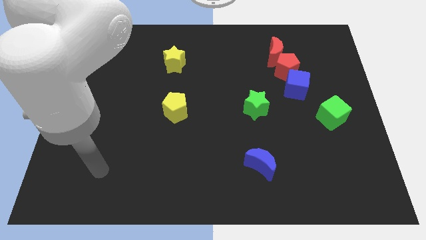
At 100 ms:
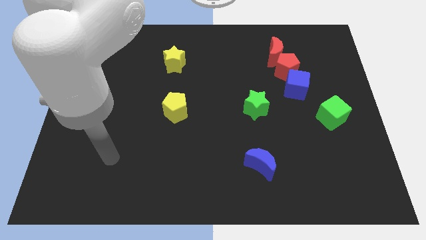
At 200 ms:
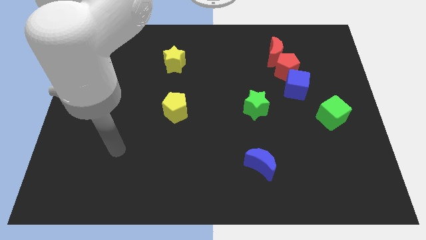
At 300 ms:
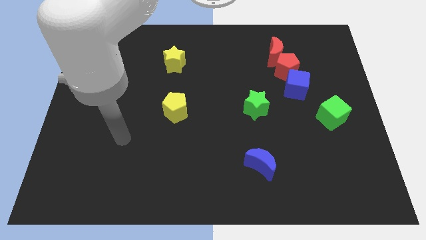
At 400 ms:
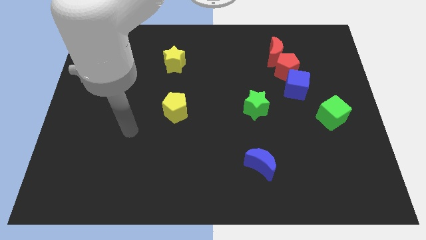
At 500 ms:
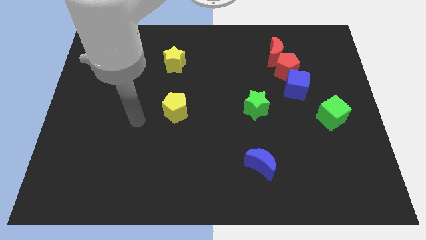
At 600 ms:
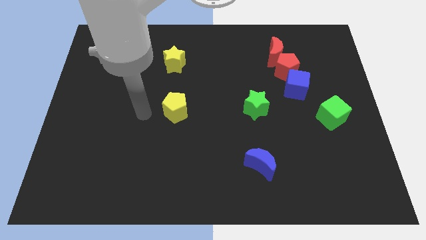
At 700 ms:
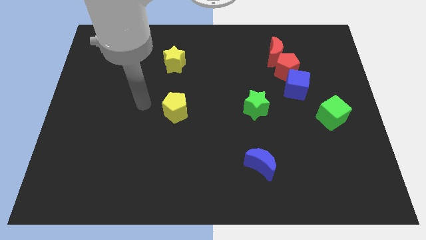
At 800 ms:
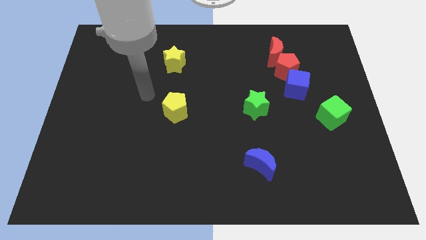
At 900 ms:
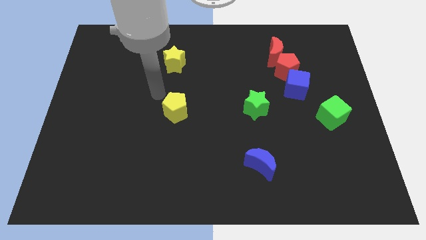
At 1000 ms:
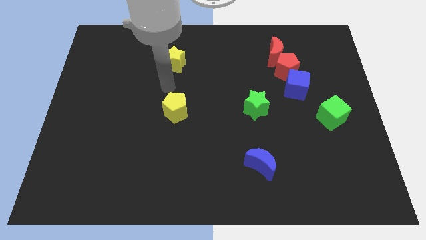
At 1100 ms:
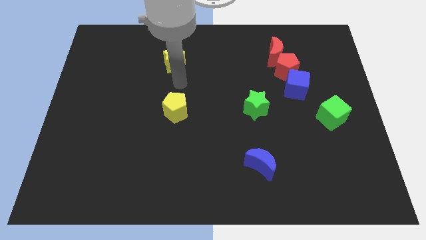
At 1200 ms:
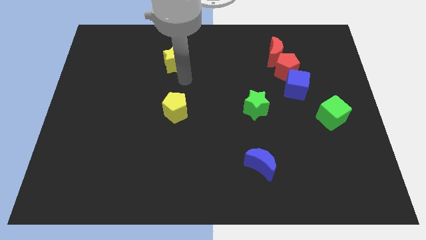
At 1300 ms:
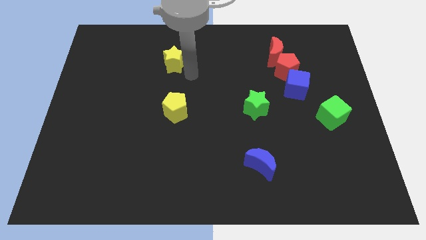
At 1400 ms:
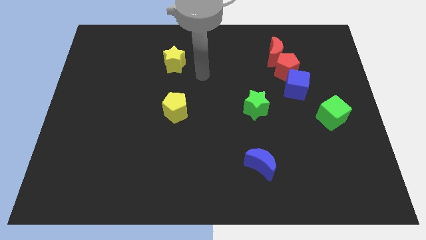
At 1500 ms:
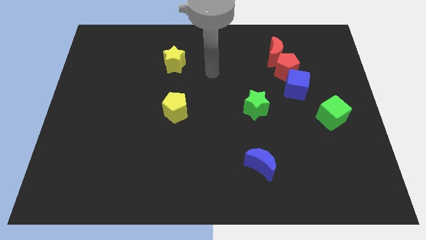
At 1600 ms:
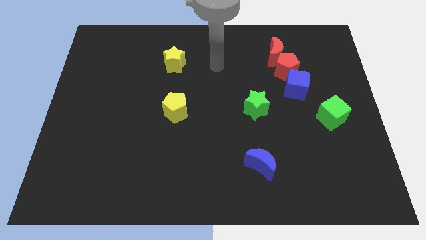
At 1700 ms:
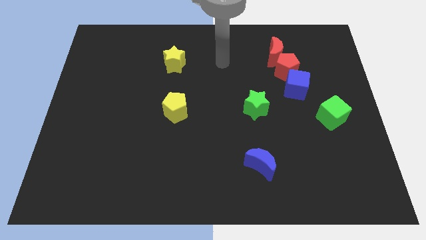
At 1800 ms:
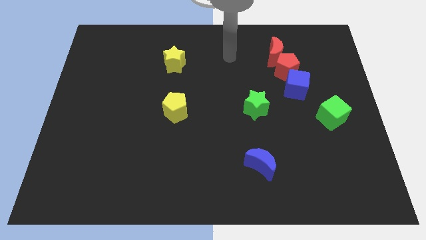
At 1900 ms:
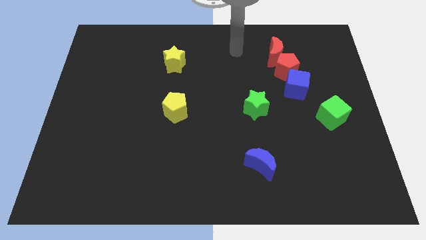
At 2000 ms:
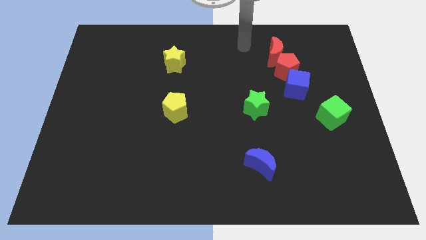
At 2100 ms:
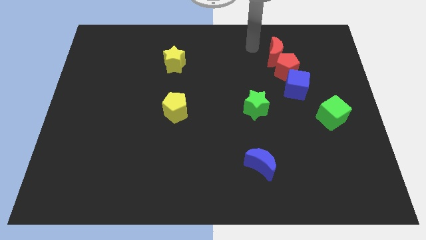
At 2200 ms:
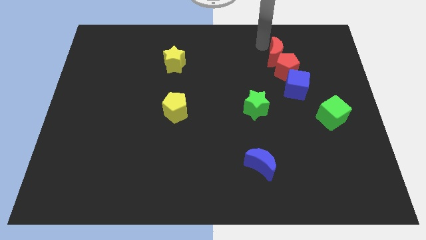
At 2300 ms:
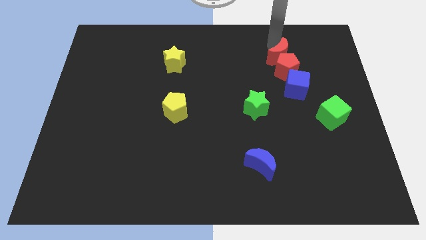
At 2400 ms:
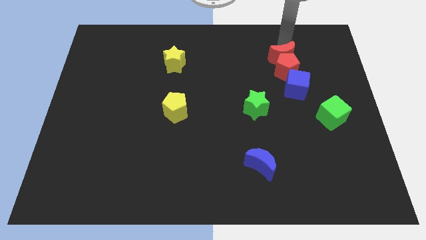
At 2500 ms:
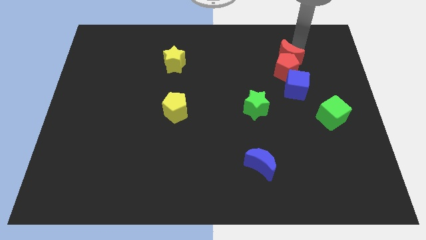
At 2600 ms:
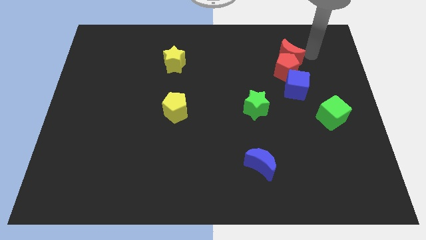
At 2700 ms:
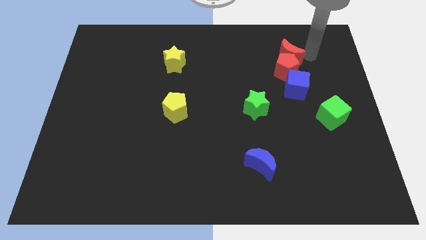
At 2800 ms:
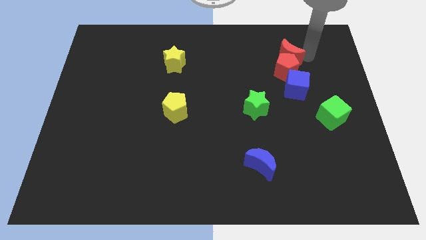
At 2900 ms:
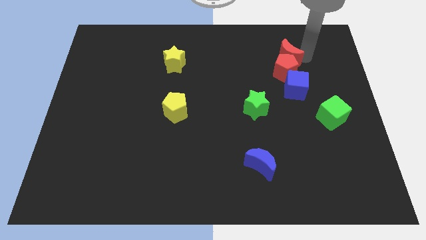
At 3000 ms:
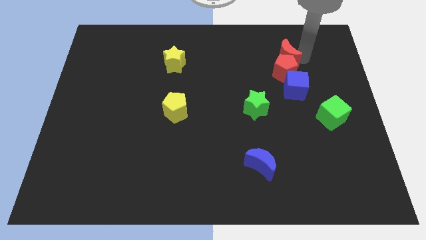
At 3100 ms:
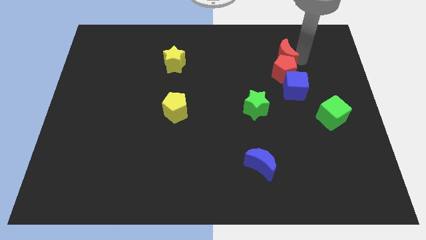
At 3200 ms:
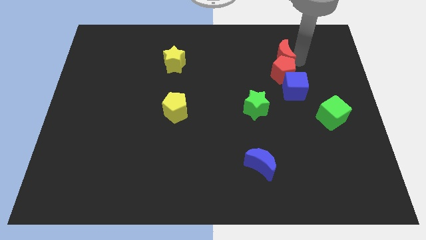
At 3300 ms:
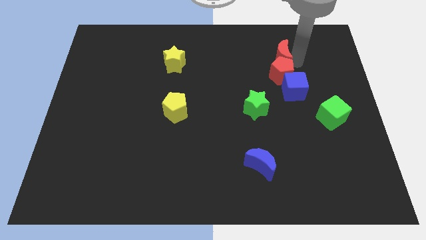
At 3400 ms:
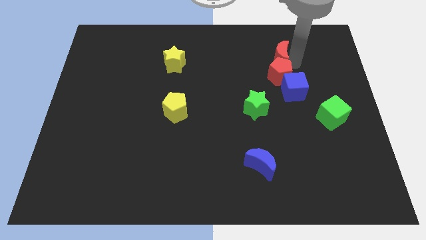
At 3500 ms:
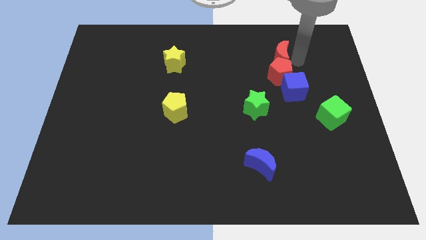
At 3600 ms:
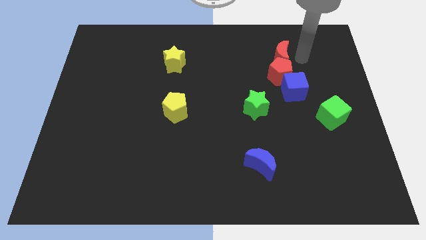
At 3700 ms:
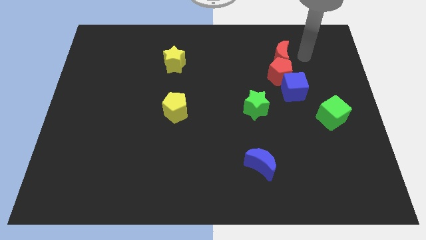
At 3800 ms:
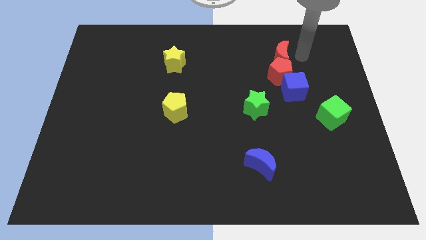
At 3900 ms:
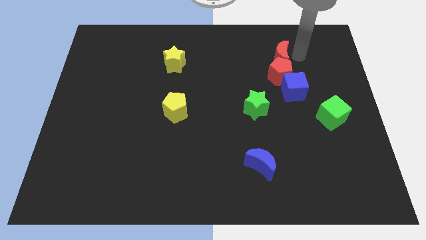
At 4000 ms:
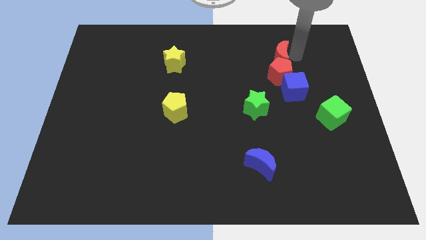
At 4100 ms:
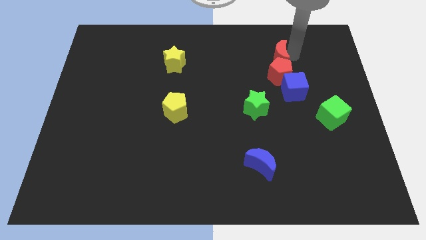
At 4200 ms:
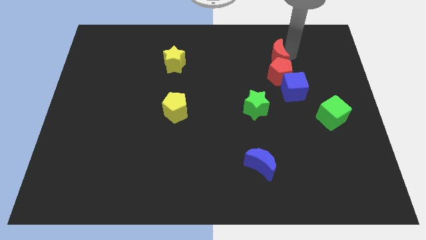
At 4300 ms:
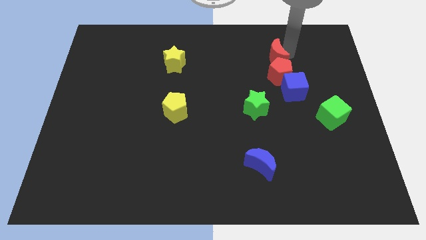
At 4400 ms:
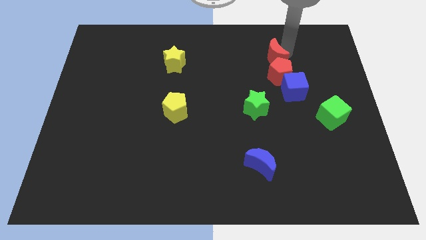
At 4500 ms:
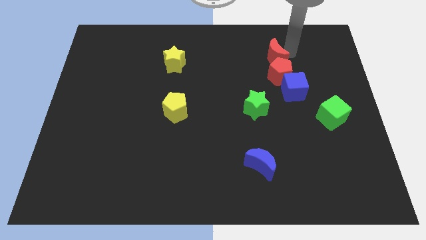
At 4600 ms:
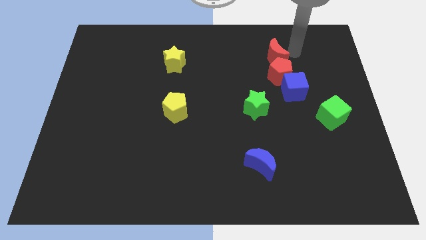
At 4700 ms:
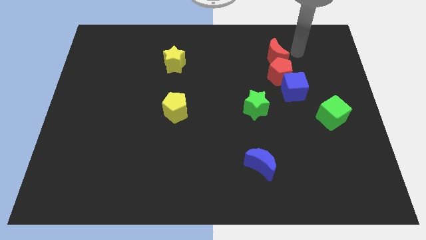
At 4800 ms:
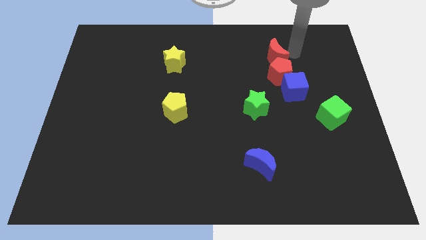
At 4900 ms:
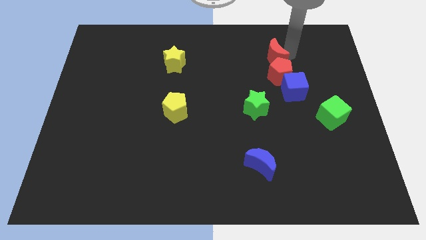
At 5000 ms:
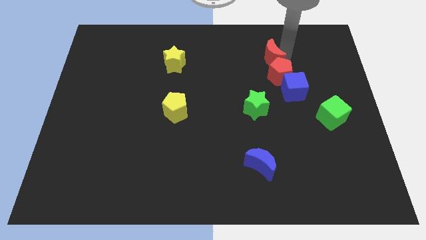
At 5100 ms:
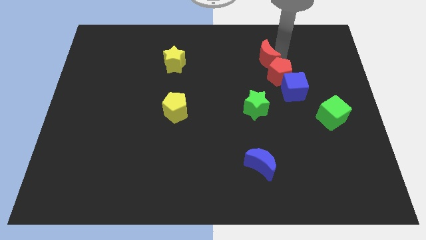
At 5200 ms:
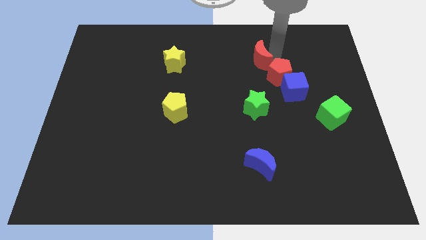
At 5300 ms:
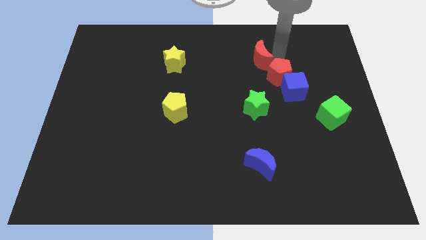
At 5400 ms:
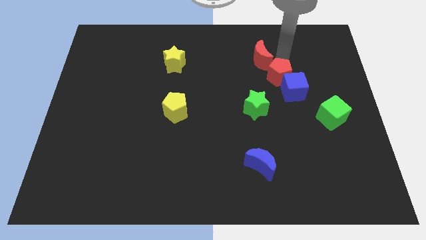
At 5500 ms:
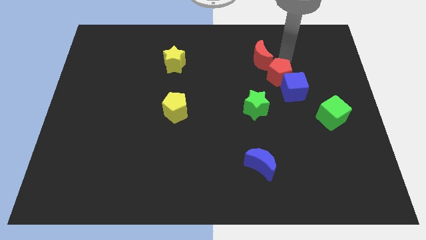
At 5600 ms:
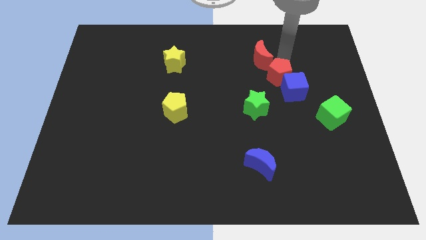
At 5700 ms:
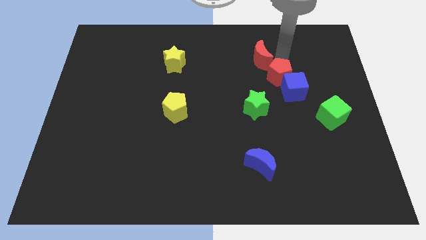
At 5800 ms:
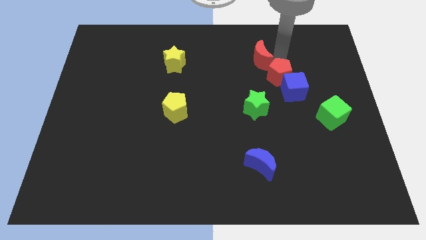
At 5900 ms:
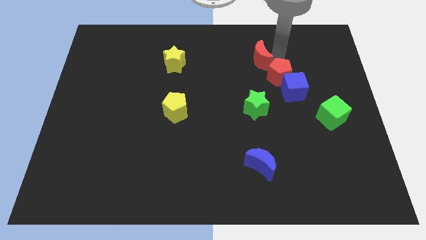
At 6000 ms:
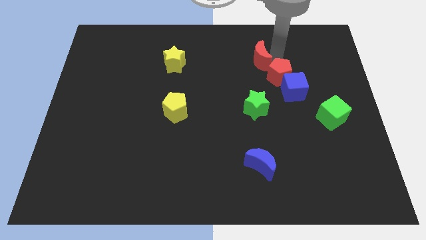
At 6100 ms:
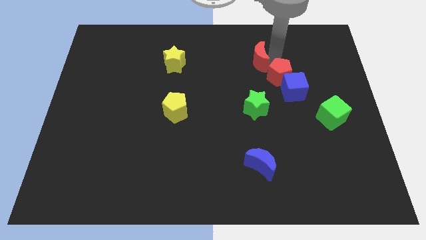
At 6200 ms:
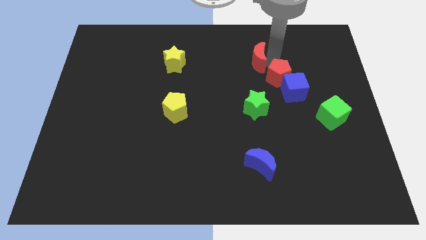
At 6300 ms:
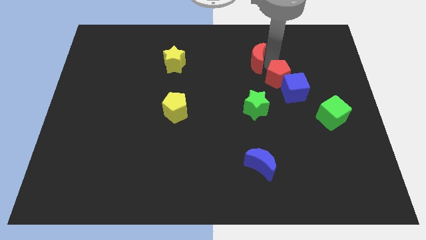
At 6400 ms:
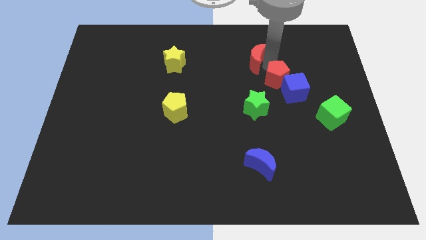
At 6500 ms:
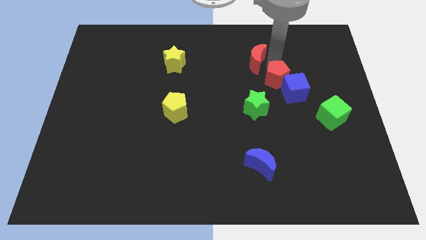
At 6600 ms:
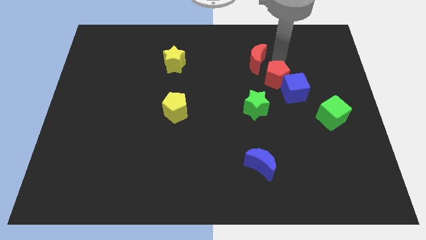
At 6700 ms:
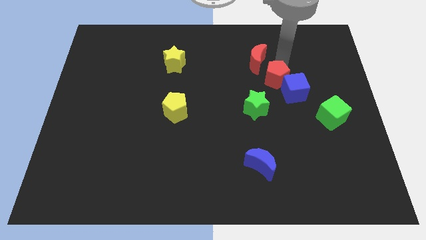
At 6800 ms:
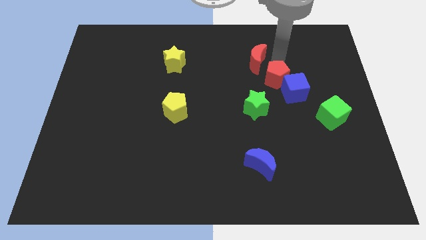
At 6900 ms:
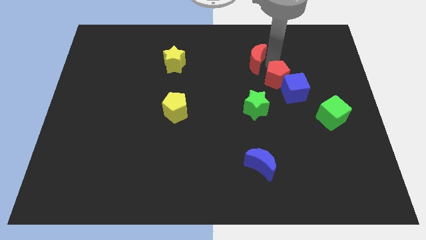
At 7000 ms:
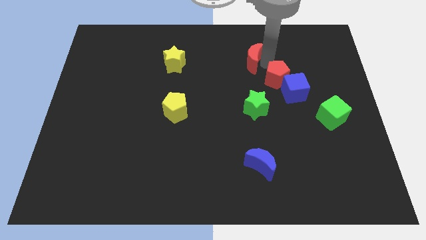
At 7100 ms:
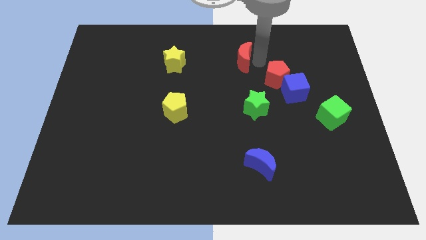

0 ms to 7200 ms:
slightly move the red moon left

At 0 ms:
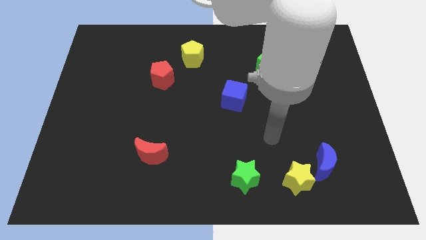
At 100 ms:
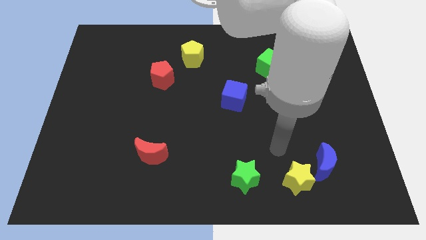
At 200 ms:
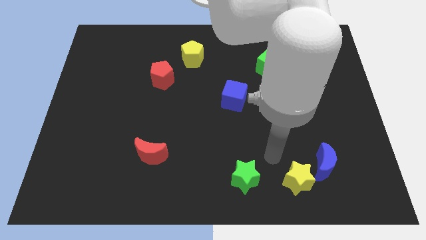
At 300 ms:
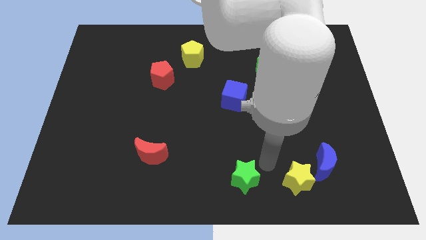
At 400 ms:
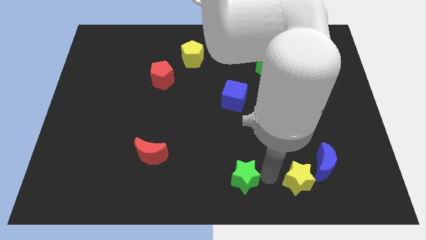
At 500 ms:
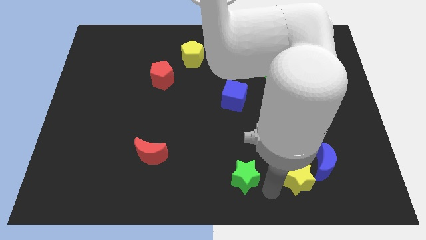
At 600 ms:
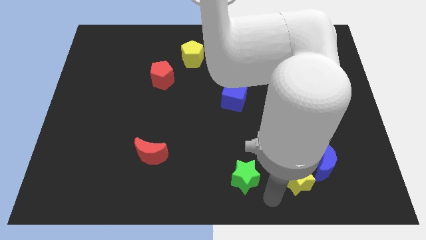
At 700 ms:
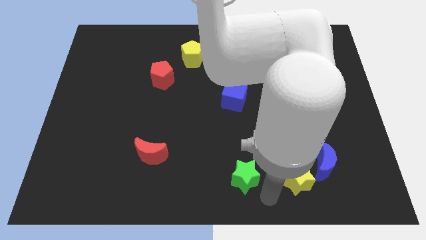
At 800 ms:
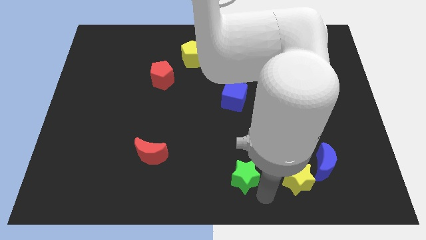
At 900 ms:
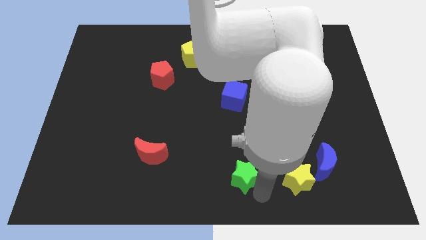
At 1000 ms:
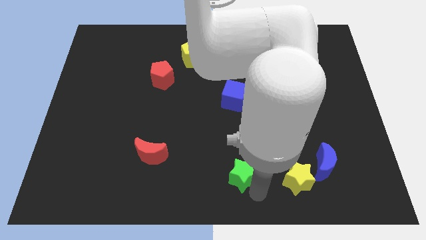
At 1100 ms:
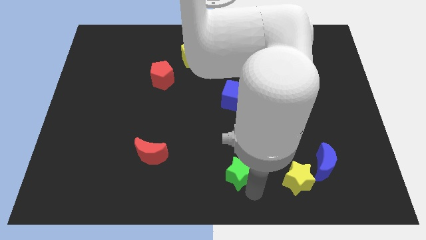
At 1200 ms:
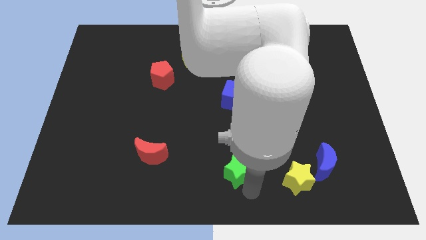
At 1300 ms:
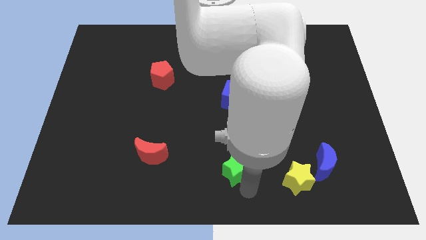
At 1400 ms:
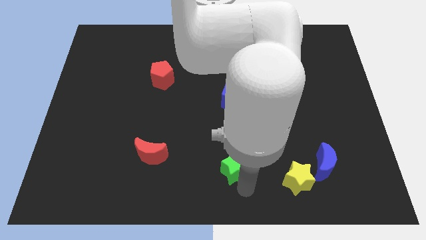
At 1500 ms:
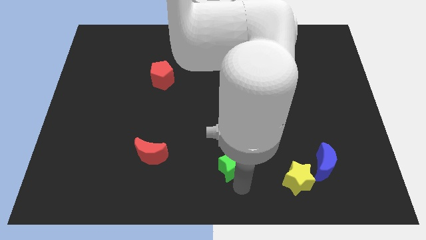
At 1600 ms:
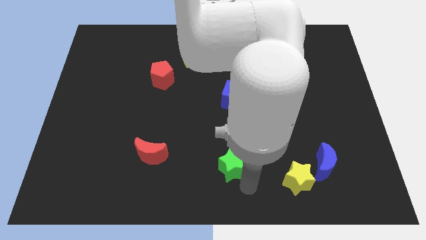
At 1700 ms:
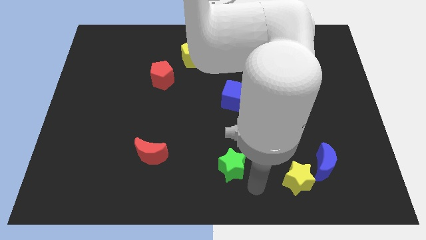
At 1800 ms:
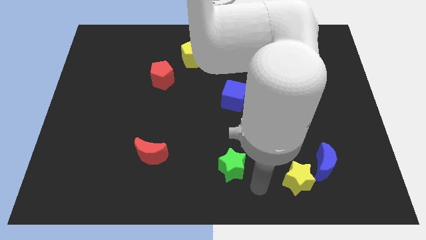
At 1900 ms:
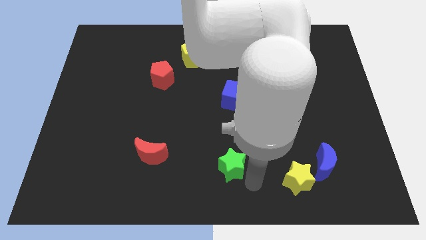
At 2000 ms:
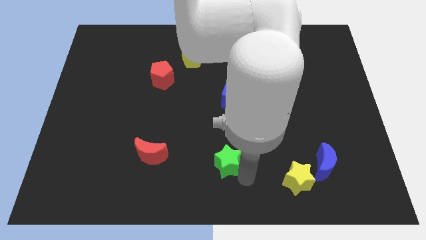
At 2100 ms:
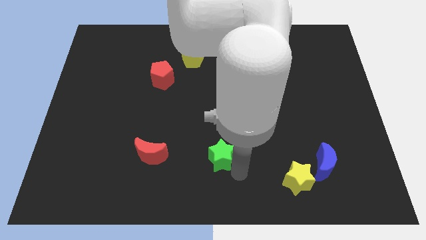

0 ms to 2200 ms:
slightly slide the green star diagonally up and to the left
